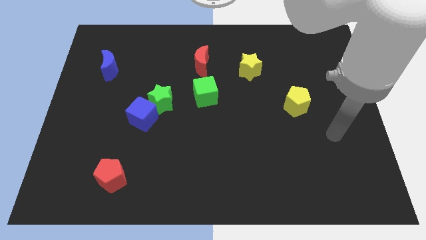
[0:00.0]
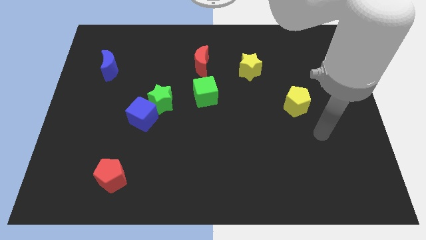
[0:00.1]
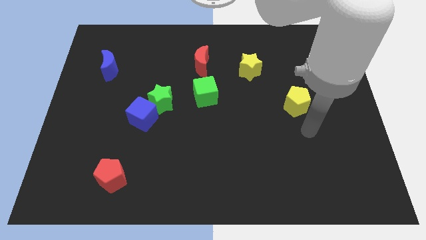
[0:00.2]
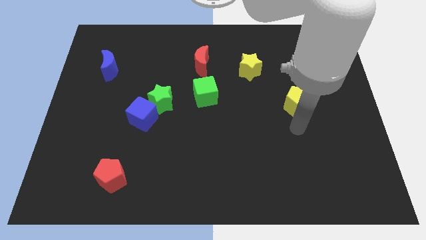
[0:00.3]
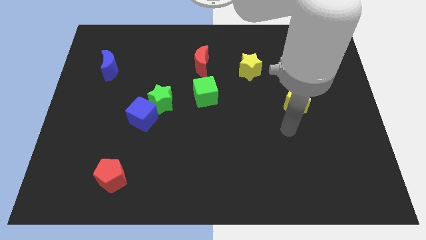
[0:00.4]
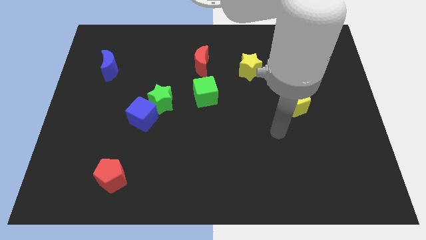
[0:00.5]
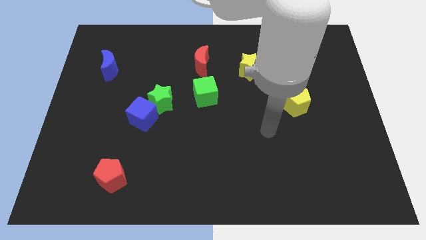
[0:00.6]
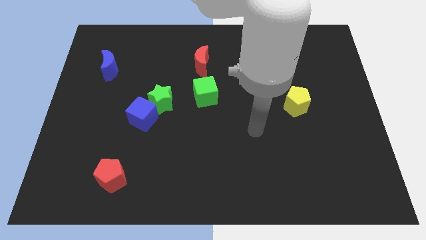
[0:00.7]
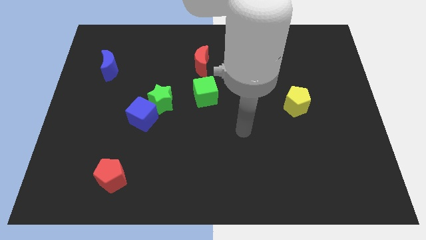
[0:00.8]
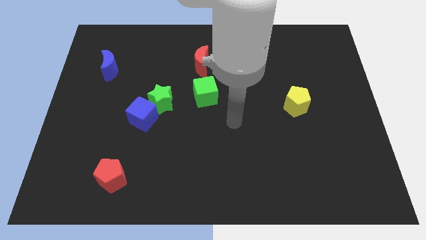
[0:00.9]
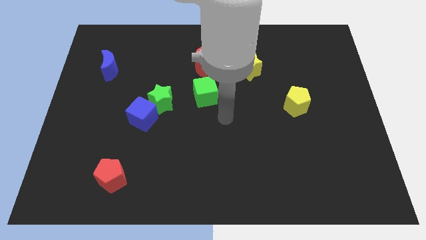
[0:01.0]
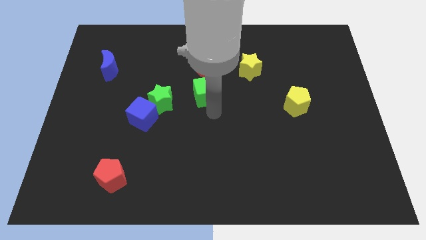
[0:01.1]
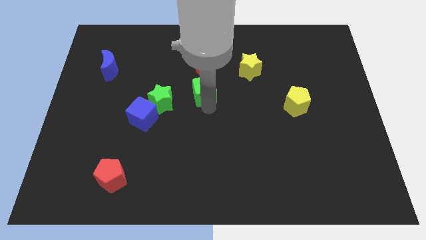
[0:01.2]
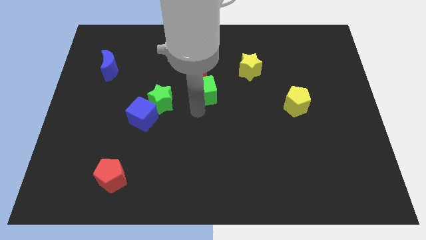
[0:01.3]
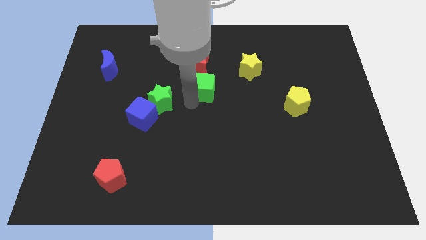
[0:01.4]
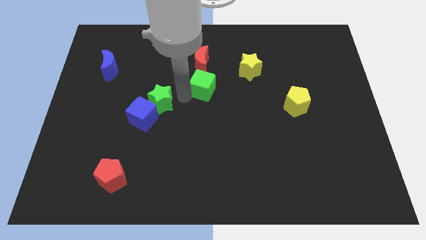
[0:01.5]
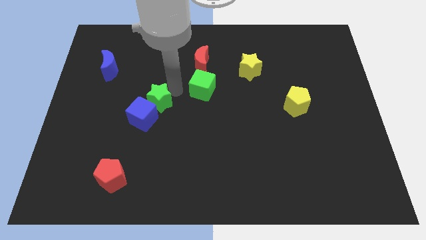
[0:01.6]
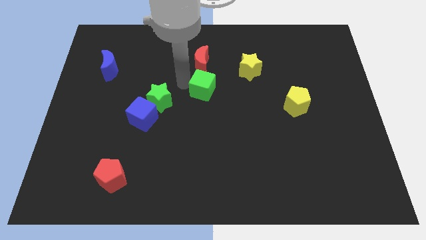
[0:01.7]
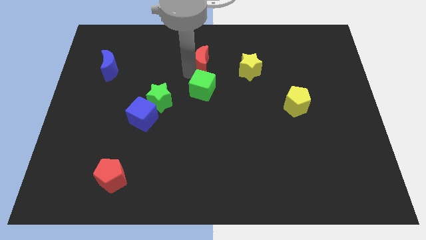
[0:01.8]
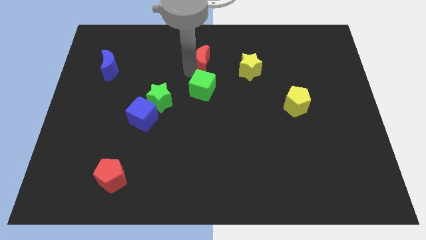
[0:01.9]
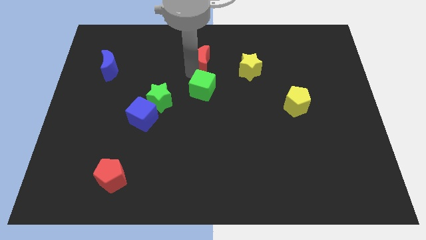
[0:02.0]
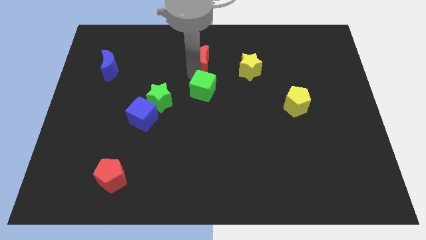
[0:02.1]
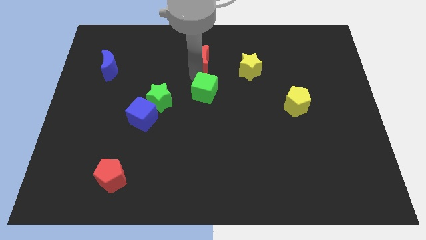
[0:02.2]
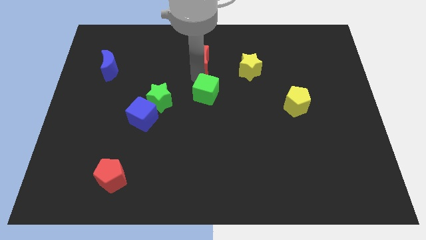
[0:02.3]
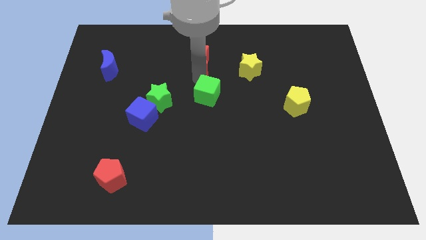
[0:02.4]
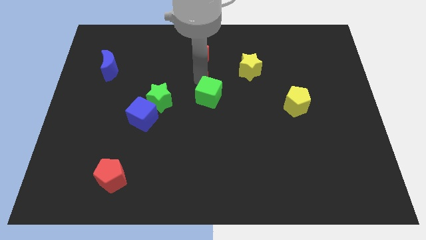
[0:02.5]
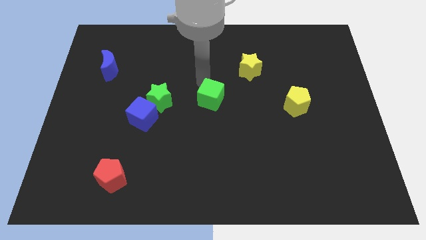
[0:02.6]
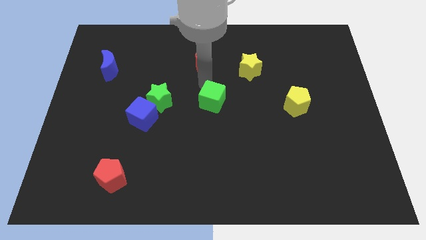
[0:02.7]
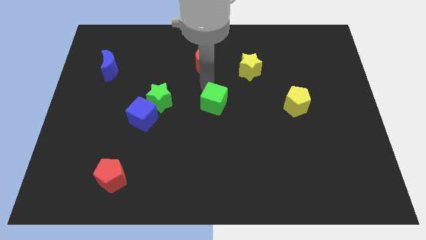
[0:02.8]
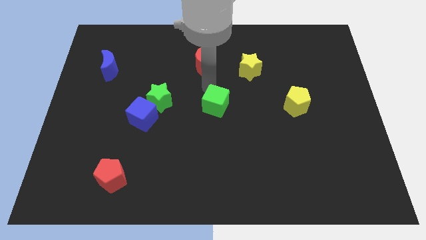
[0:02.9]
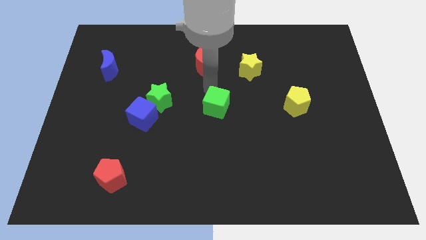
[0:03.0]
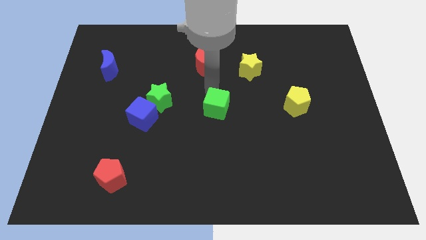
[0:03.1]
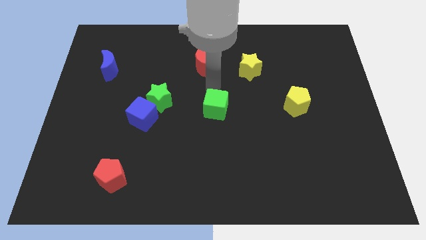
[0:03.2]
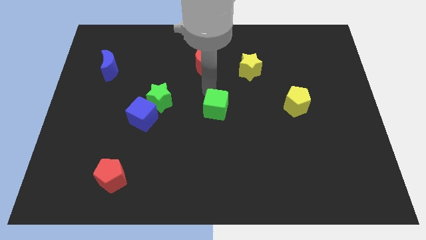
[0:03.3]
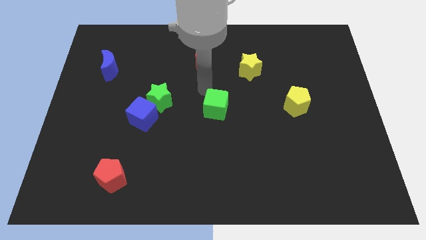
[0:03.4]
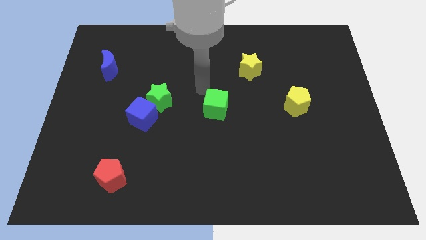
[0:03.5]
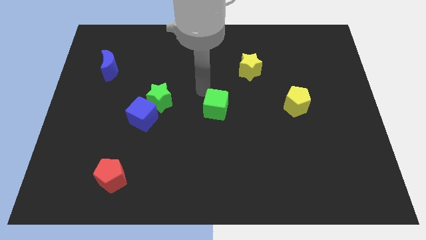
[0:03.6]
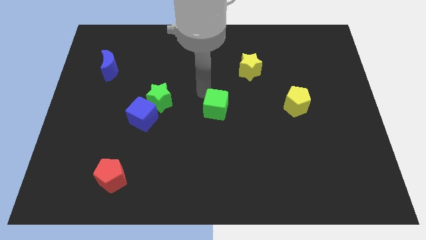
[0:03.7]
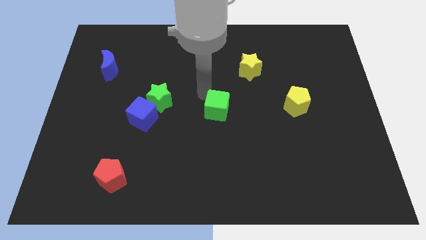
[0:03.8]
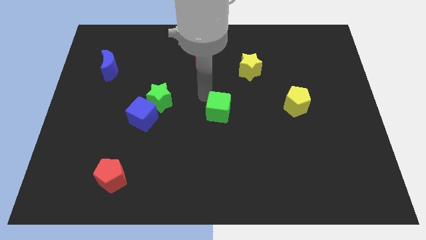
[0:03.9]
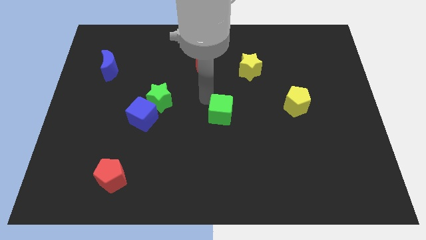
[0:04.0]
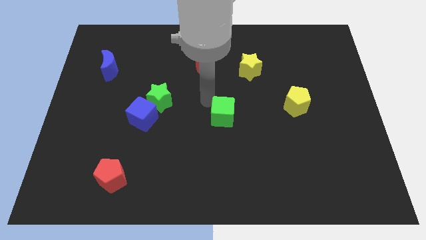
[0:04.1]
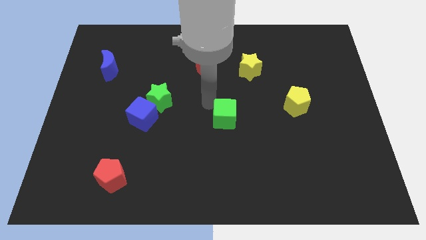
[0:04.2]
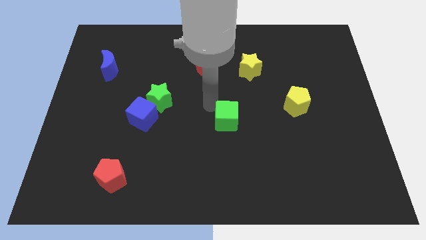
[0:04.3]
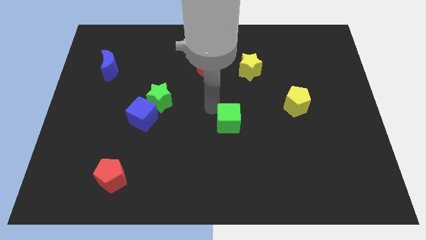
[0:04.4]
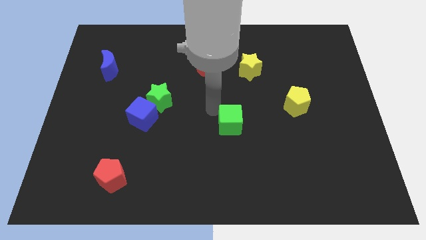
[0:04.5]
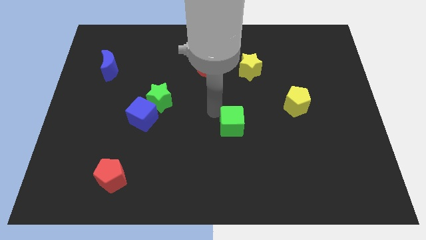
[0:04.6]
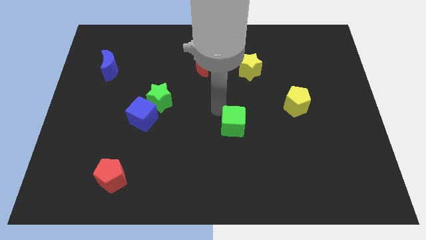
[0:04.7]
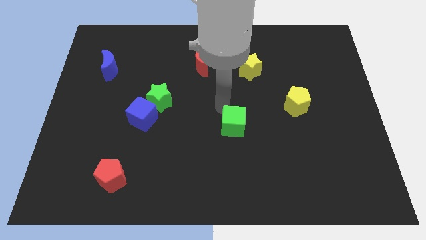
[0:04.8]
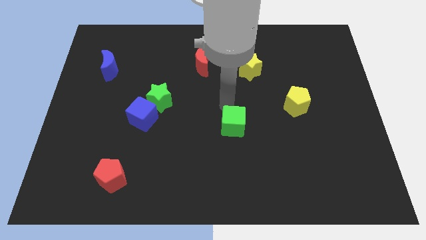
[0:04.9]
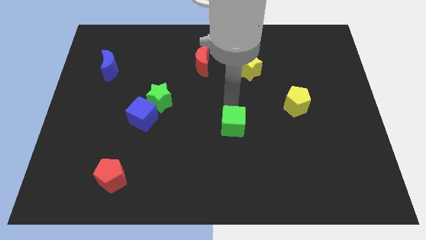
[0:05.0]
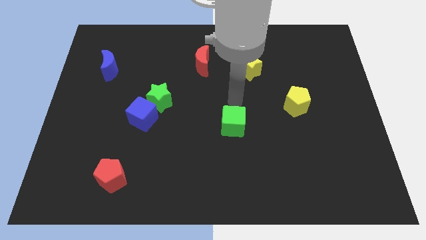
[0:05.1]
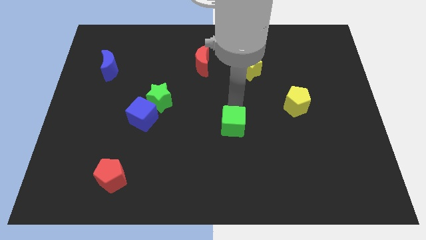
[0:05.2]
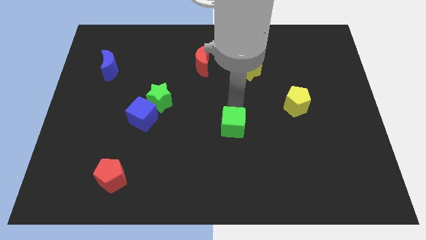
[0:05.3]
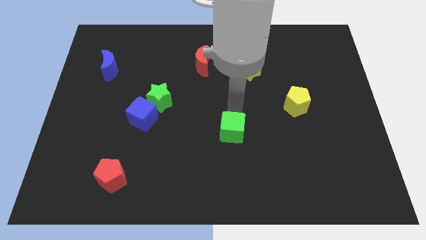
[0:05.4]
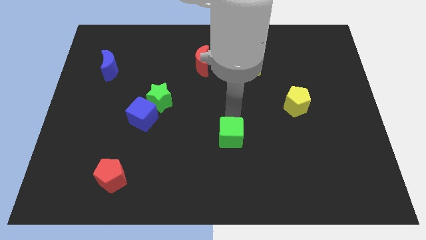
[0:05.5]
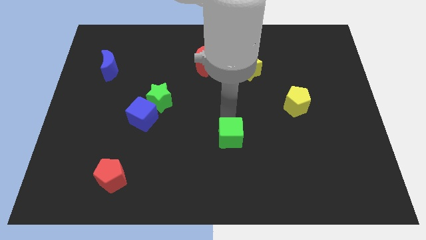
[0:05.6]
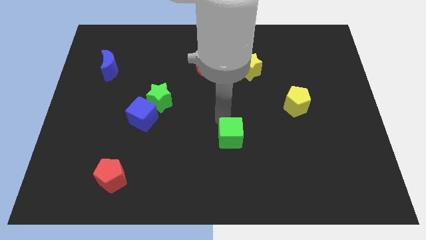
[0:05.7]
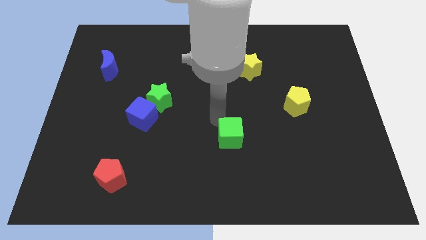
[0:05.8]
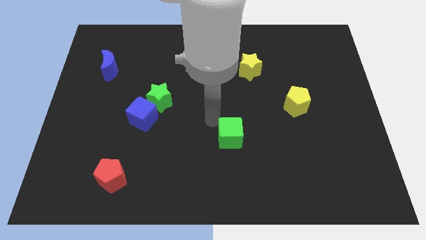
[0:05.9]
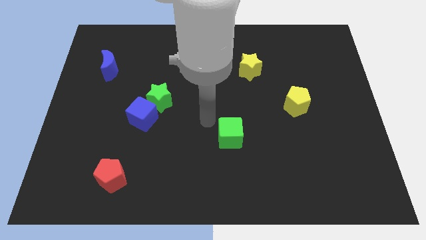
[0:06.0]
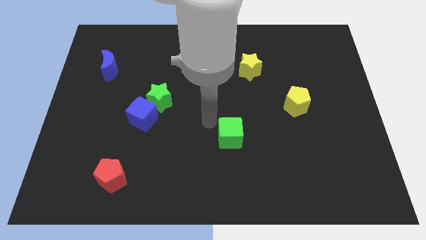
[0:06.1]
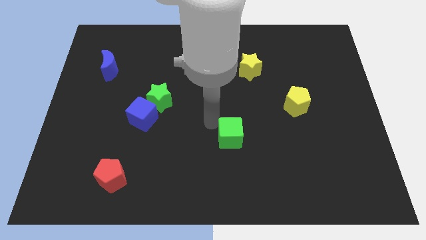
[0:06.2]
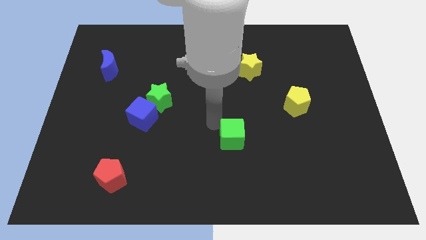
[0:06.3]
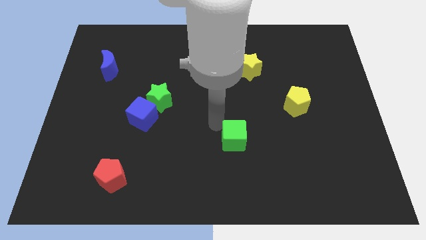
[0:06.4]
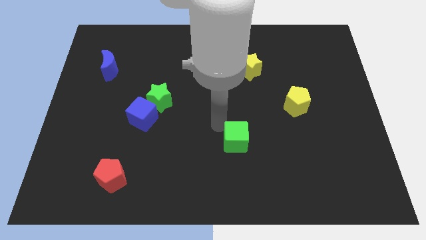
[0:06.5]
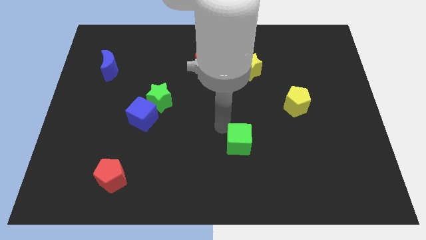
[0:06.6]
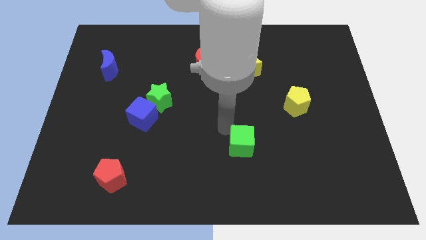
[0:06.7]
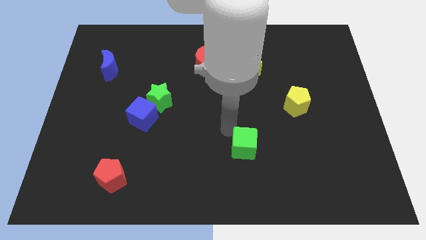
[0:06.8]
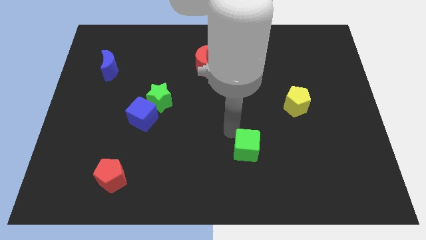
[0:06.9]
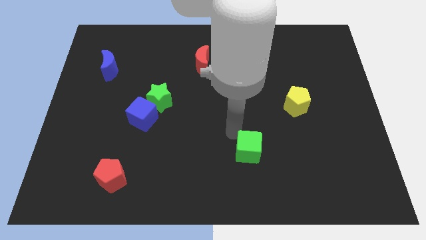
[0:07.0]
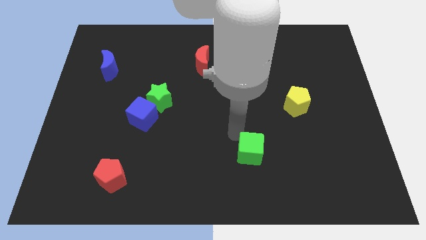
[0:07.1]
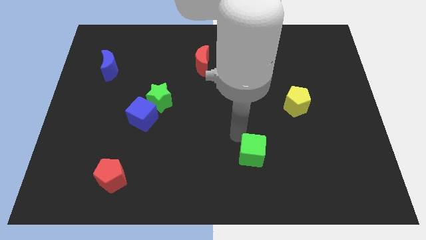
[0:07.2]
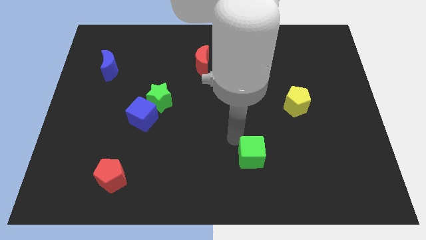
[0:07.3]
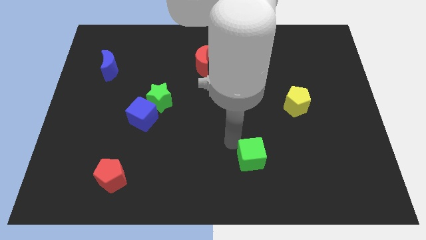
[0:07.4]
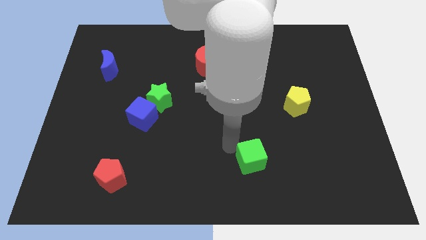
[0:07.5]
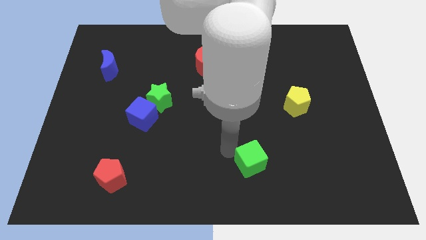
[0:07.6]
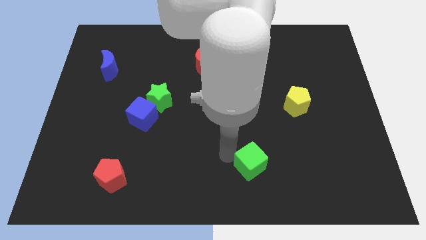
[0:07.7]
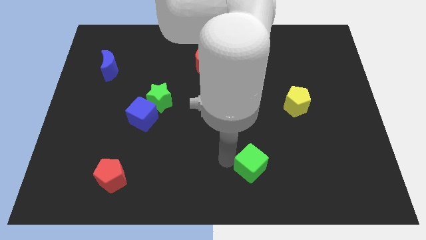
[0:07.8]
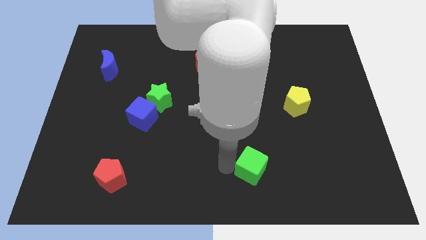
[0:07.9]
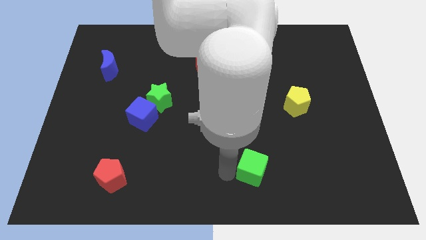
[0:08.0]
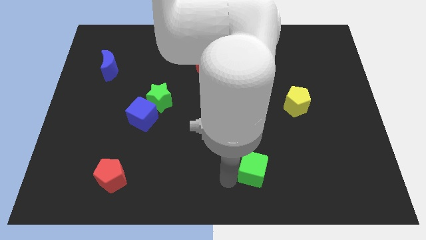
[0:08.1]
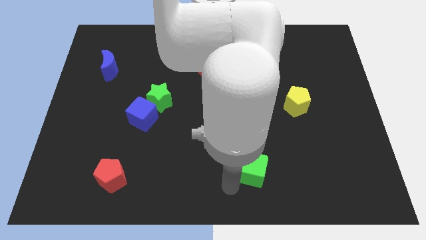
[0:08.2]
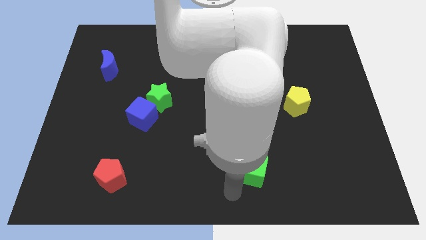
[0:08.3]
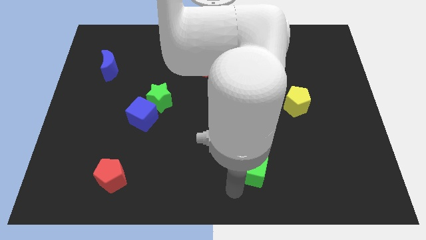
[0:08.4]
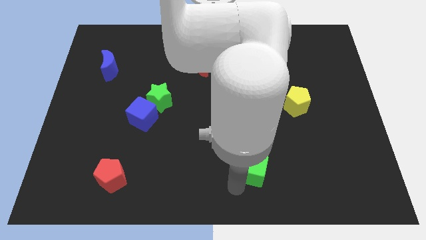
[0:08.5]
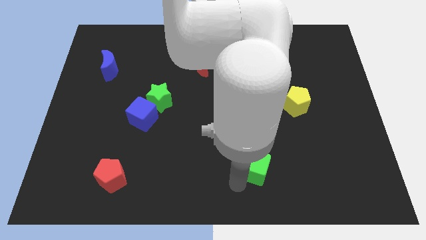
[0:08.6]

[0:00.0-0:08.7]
push the green cube diagonally downwards and right
